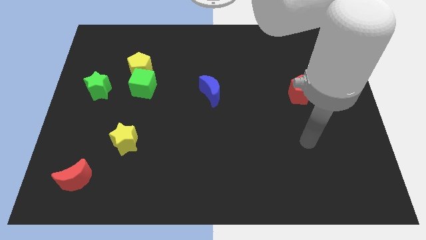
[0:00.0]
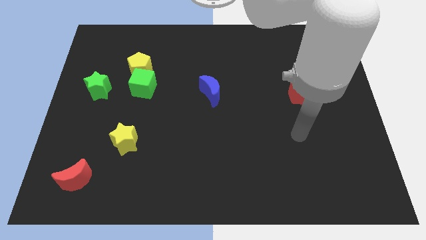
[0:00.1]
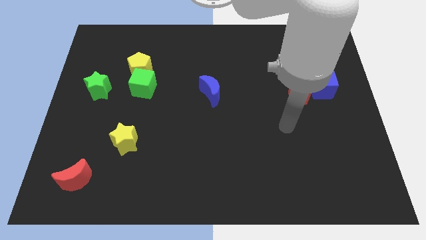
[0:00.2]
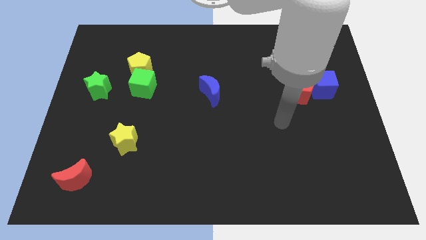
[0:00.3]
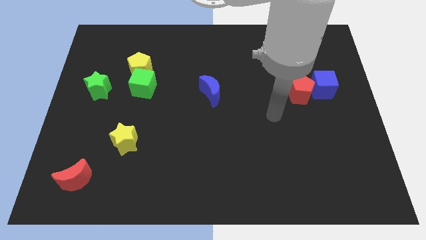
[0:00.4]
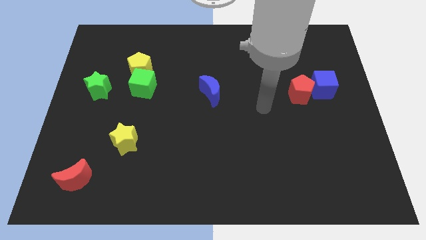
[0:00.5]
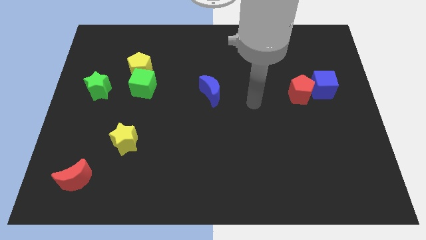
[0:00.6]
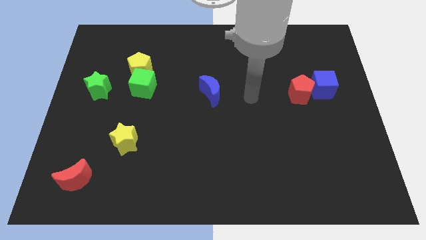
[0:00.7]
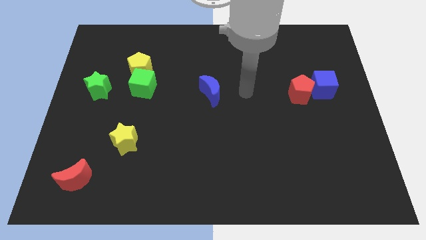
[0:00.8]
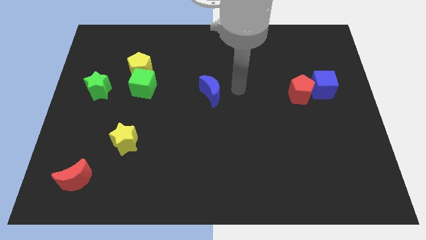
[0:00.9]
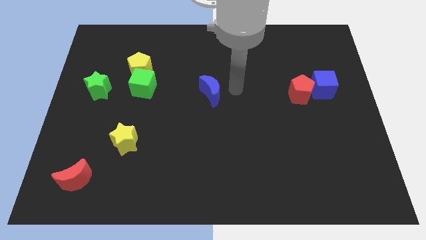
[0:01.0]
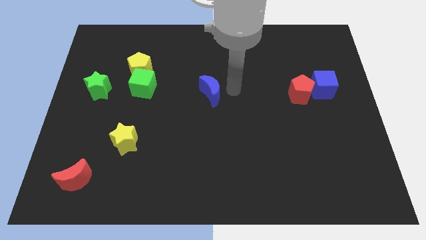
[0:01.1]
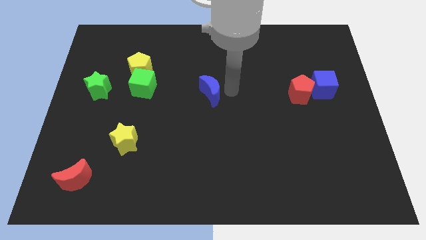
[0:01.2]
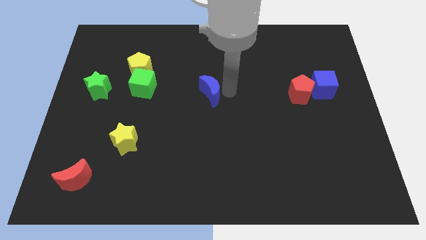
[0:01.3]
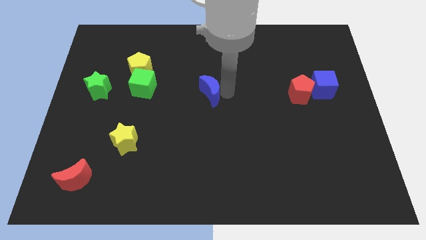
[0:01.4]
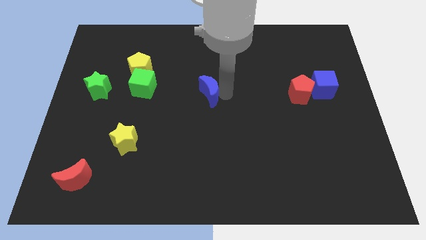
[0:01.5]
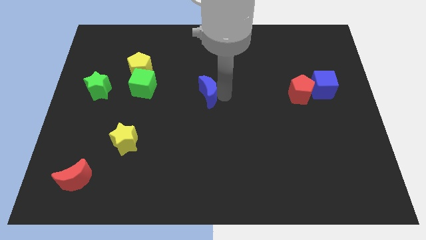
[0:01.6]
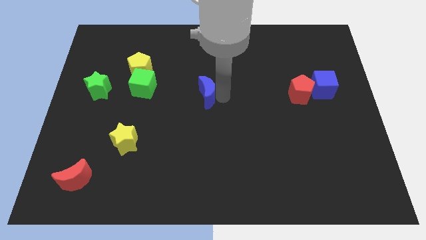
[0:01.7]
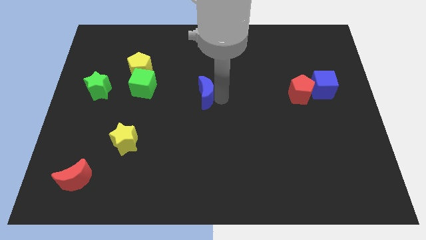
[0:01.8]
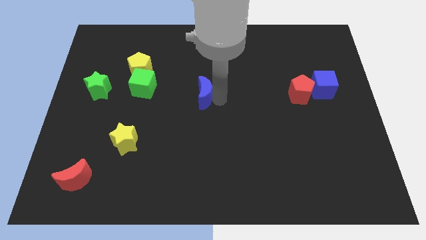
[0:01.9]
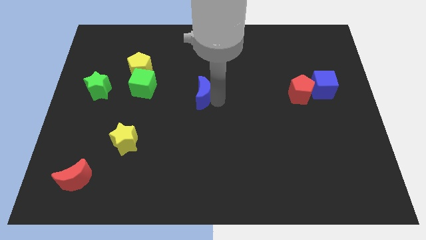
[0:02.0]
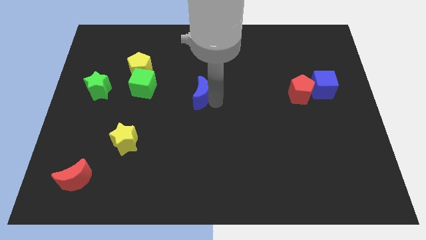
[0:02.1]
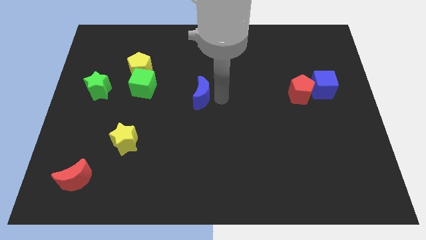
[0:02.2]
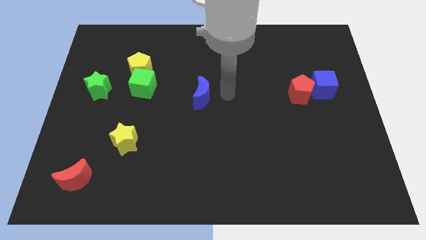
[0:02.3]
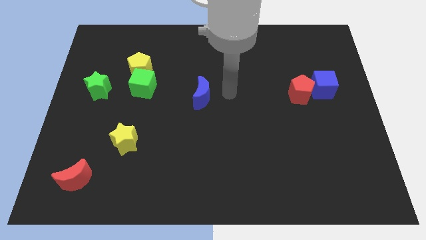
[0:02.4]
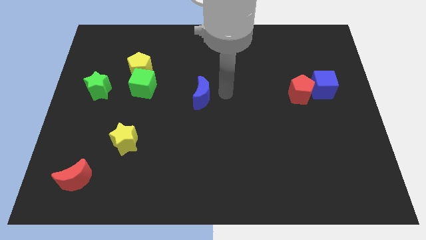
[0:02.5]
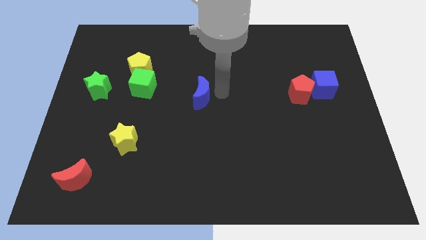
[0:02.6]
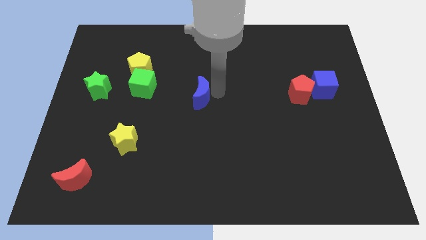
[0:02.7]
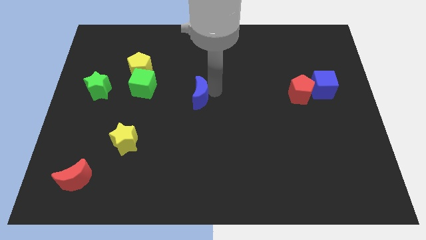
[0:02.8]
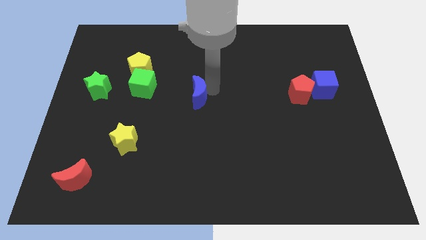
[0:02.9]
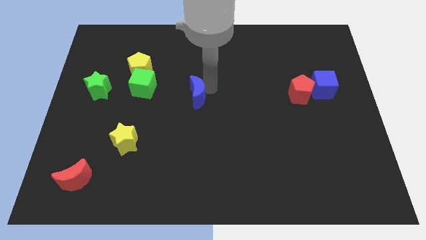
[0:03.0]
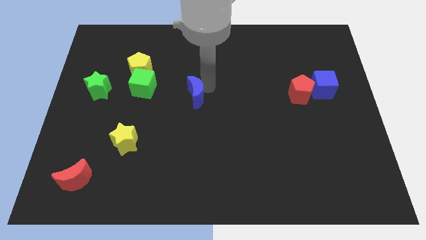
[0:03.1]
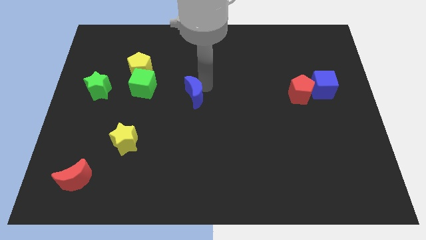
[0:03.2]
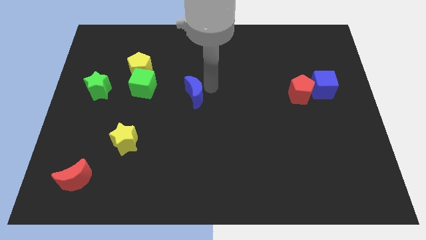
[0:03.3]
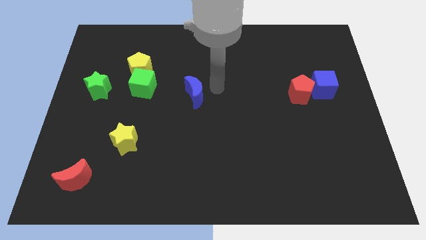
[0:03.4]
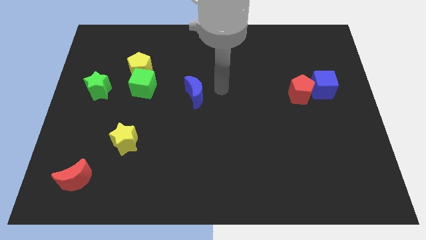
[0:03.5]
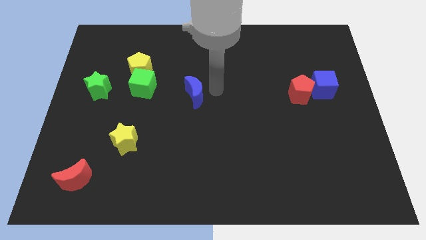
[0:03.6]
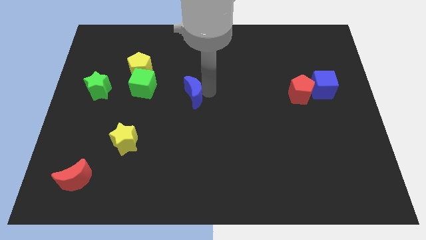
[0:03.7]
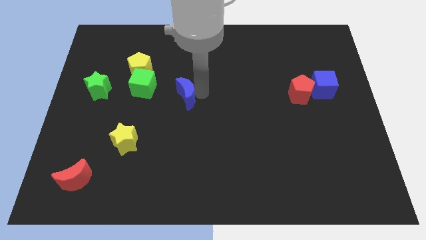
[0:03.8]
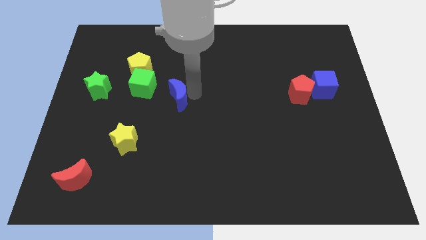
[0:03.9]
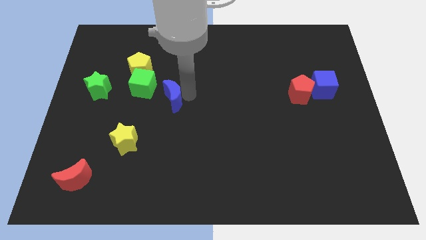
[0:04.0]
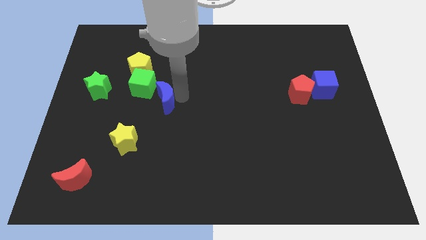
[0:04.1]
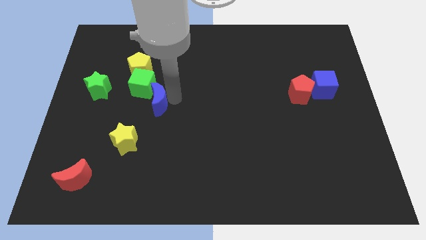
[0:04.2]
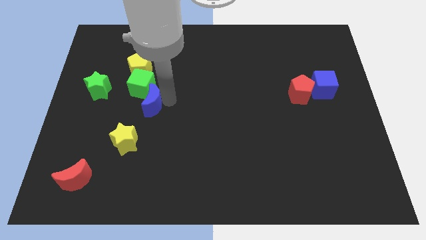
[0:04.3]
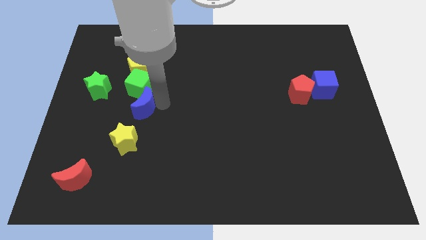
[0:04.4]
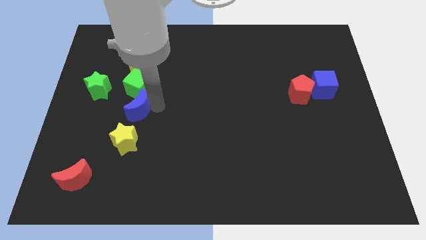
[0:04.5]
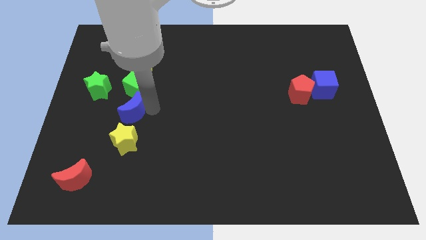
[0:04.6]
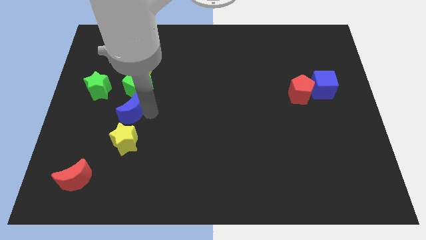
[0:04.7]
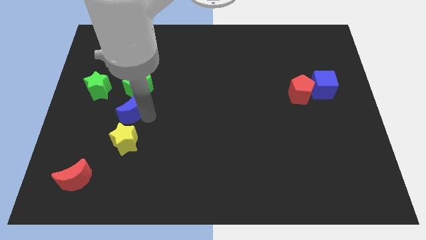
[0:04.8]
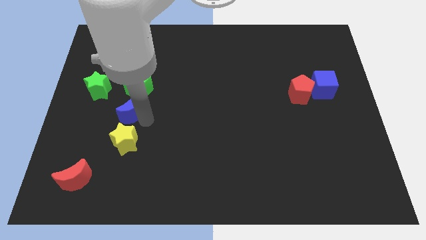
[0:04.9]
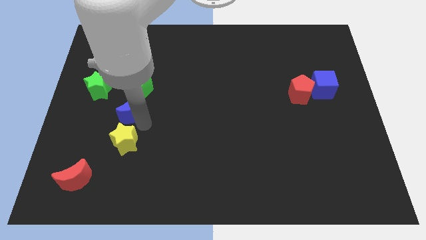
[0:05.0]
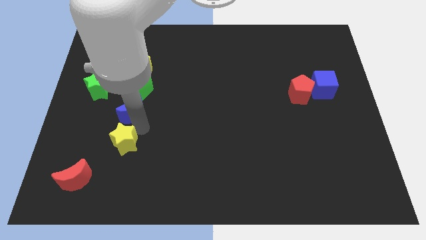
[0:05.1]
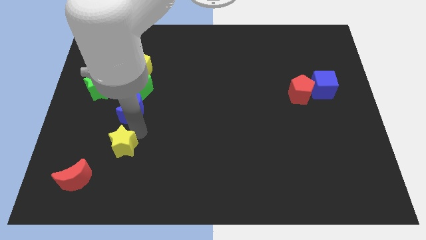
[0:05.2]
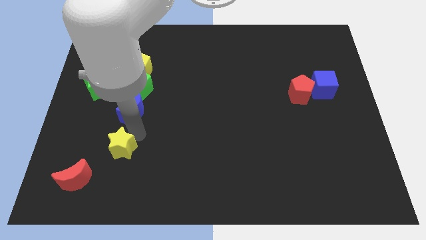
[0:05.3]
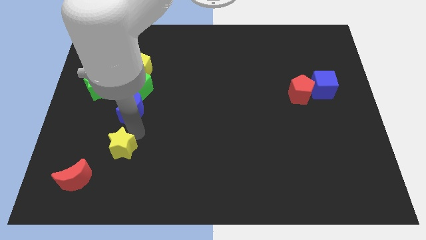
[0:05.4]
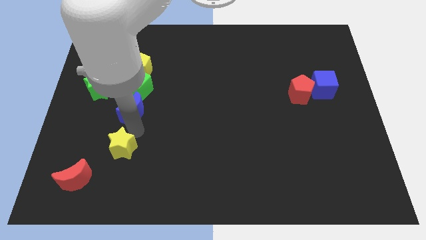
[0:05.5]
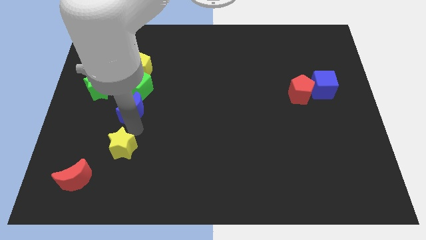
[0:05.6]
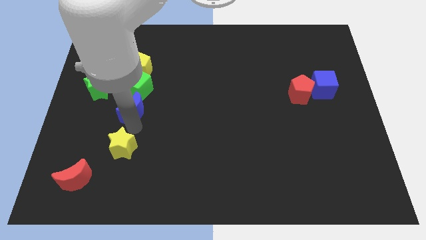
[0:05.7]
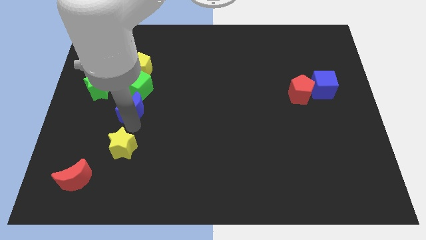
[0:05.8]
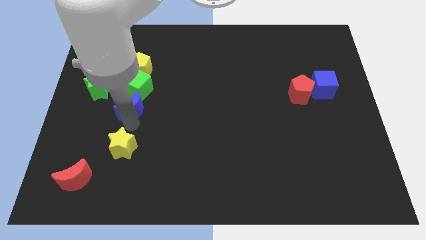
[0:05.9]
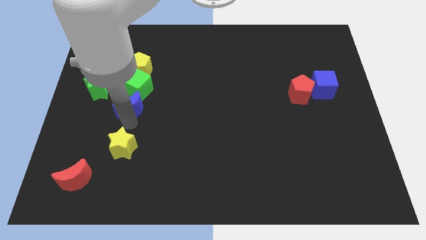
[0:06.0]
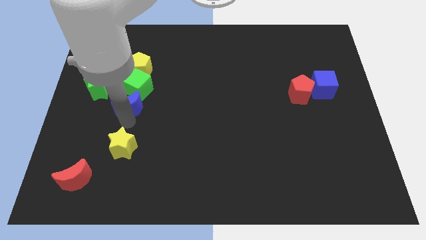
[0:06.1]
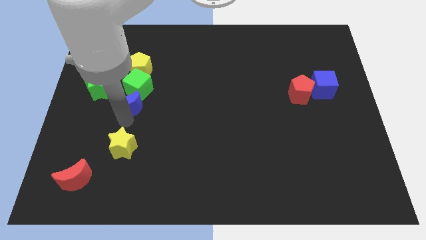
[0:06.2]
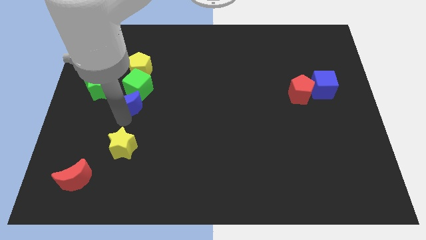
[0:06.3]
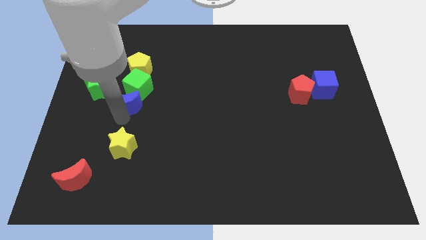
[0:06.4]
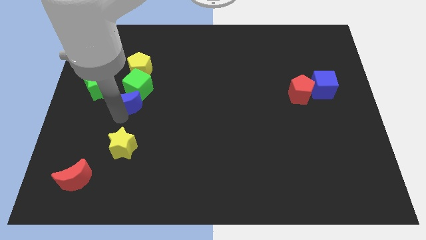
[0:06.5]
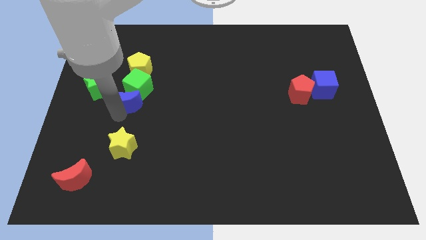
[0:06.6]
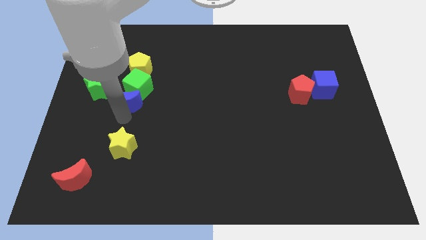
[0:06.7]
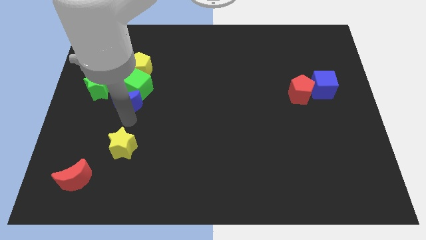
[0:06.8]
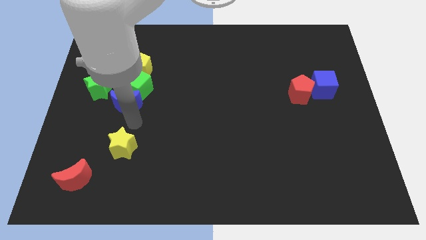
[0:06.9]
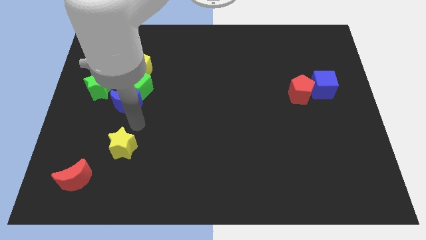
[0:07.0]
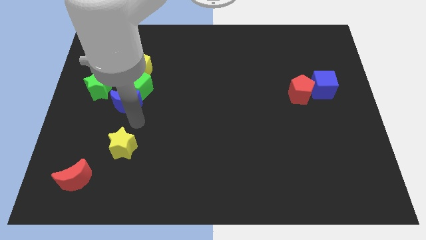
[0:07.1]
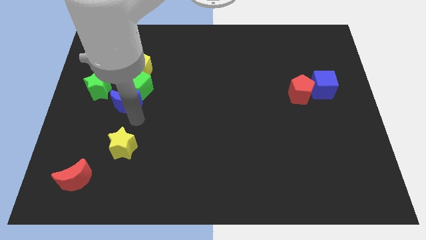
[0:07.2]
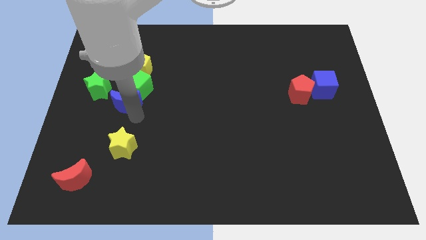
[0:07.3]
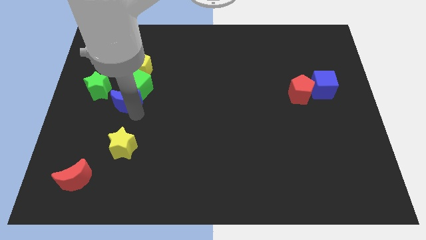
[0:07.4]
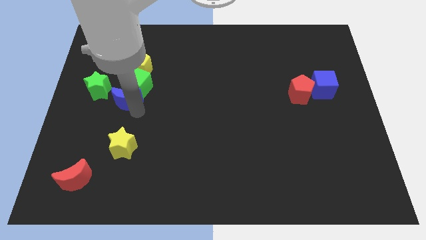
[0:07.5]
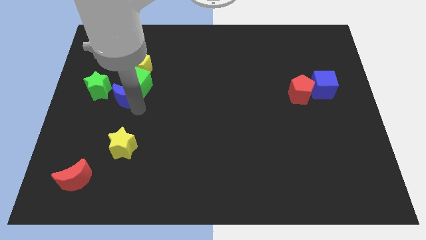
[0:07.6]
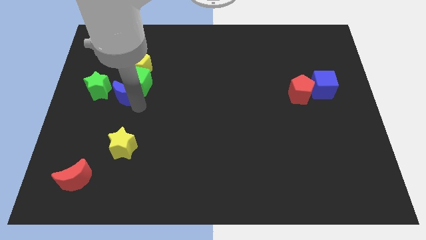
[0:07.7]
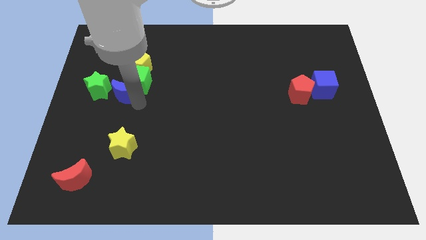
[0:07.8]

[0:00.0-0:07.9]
move the blue moon to the bottom left side of the yellow pentagon

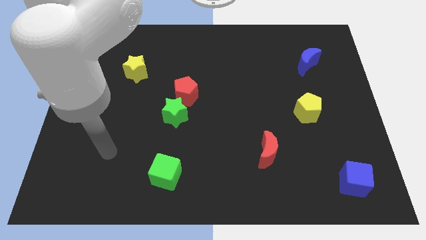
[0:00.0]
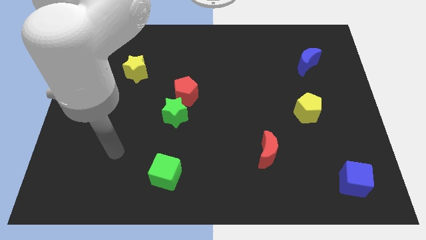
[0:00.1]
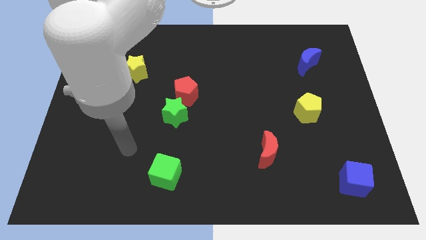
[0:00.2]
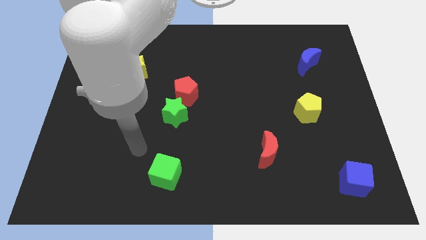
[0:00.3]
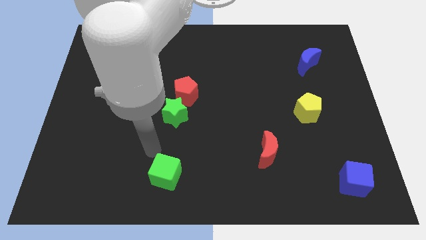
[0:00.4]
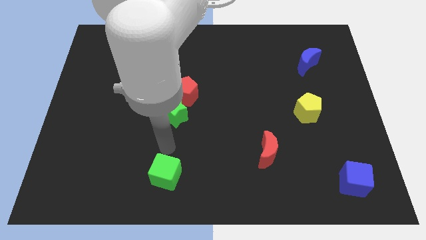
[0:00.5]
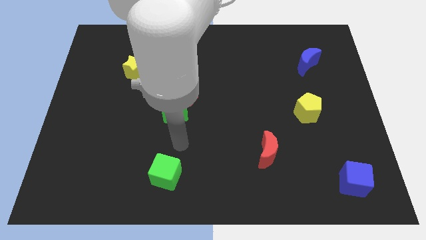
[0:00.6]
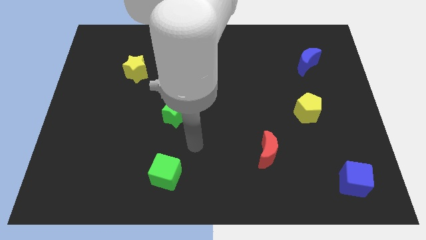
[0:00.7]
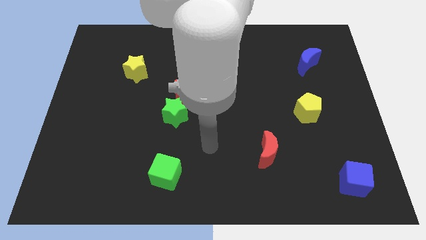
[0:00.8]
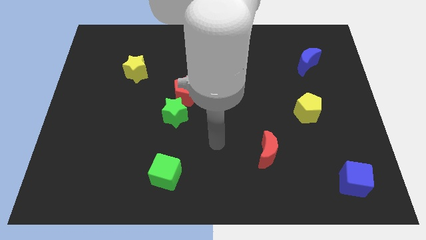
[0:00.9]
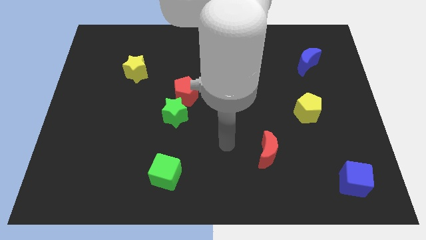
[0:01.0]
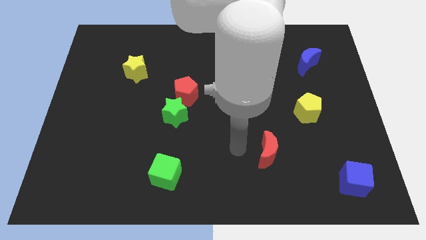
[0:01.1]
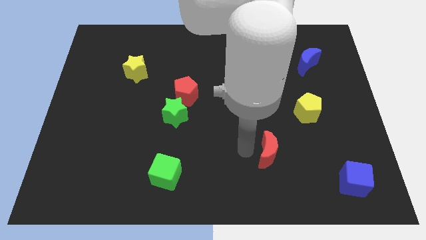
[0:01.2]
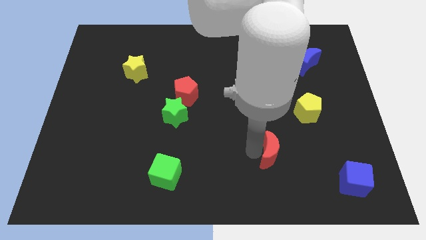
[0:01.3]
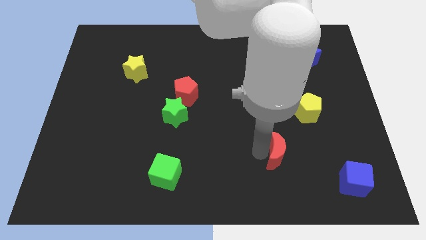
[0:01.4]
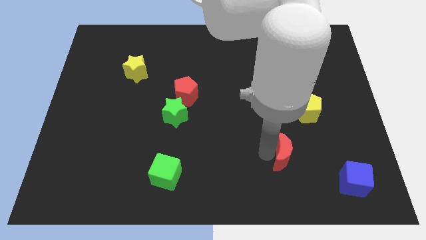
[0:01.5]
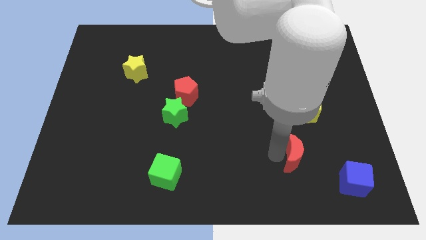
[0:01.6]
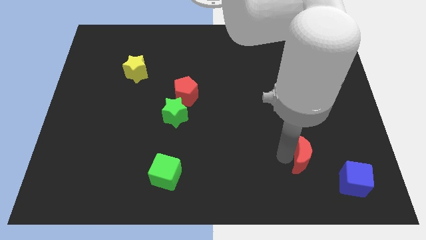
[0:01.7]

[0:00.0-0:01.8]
put the red moon diagonally up and to the left of the blue cube
